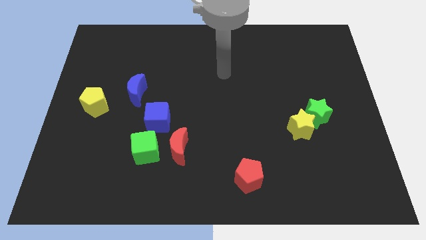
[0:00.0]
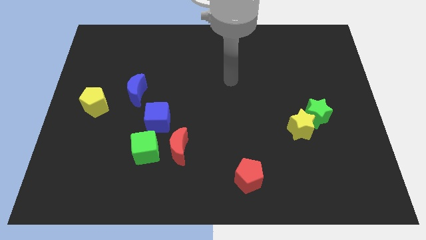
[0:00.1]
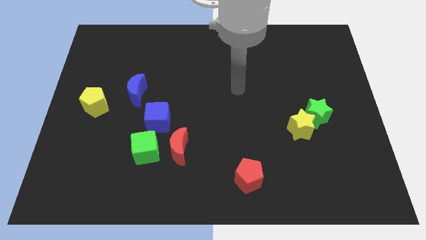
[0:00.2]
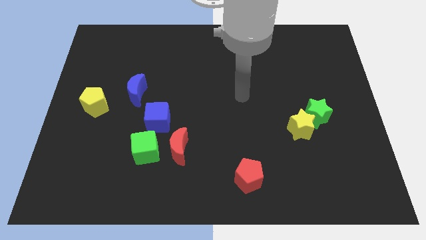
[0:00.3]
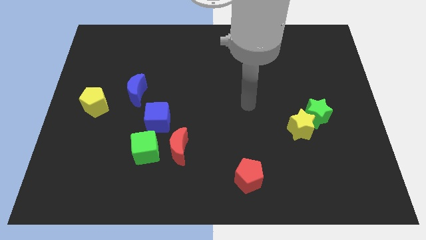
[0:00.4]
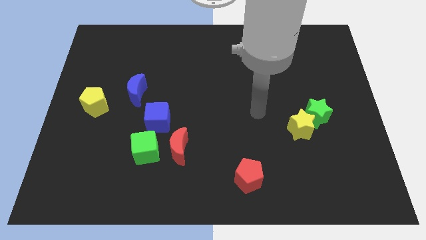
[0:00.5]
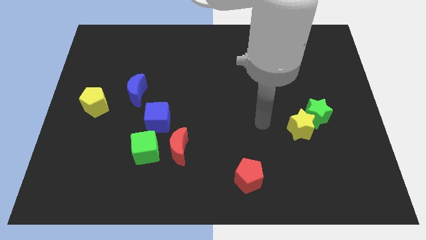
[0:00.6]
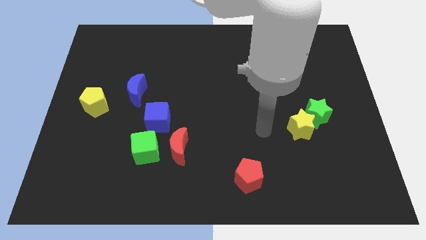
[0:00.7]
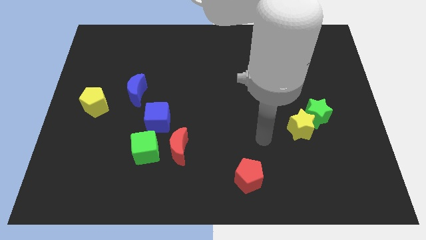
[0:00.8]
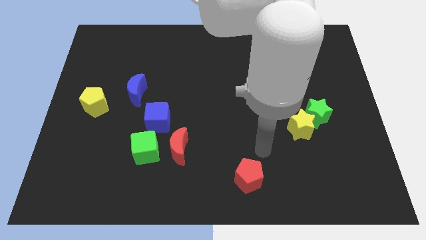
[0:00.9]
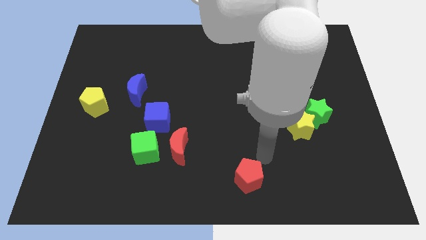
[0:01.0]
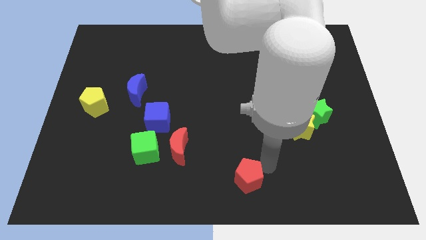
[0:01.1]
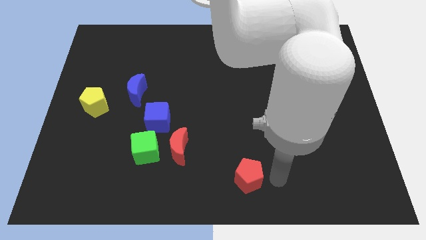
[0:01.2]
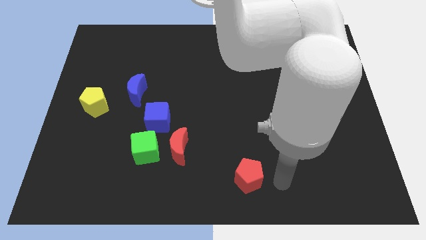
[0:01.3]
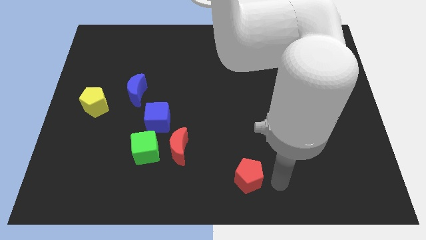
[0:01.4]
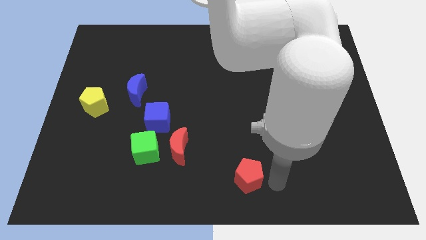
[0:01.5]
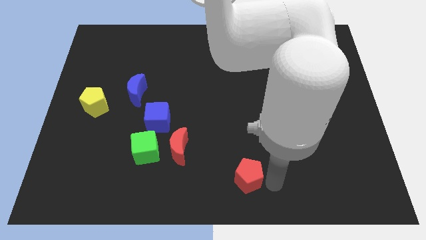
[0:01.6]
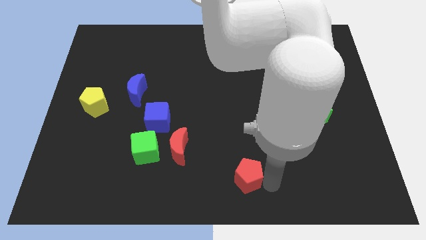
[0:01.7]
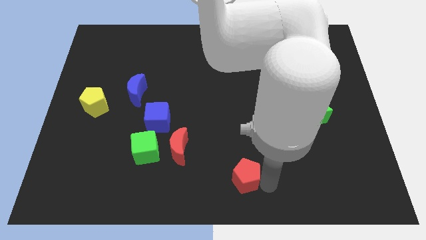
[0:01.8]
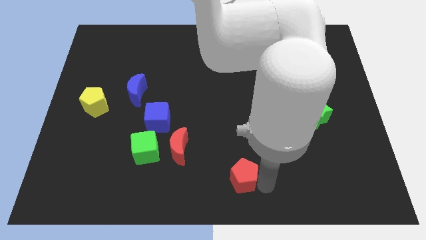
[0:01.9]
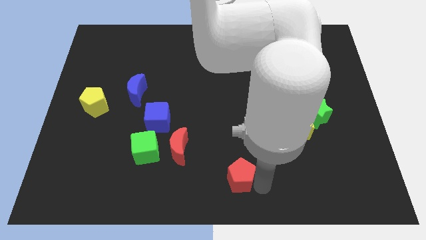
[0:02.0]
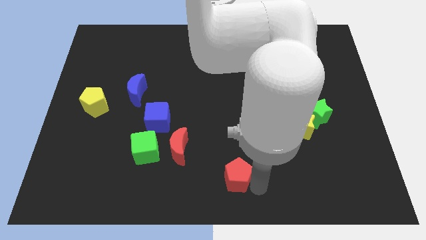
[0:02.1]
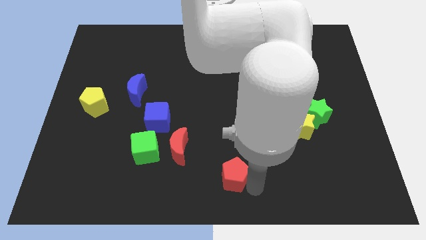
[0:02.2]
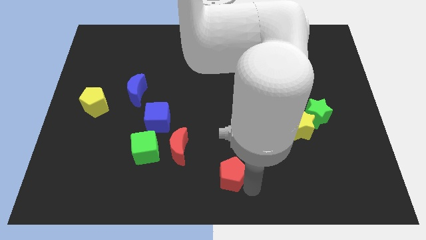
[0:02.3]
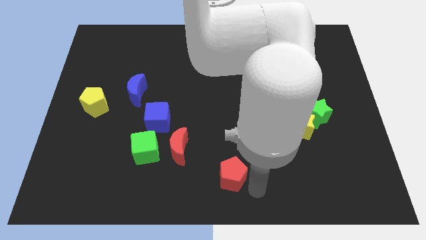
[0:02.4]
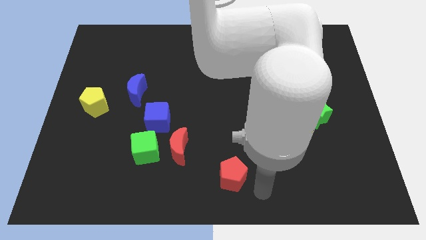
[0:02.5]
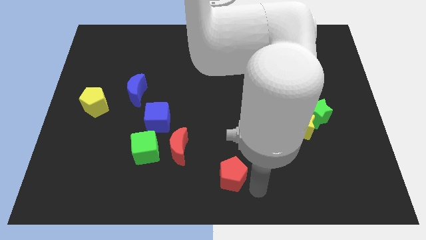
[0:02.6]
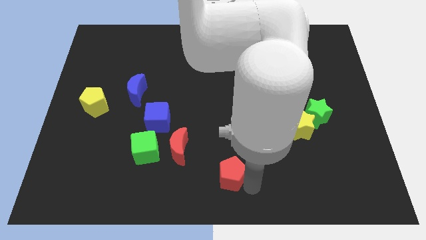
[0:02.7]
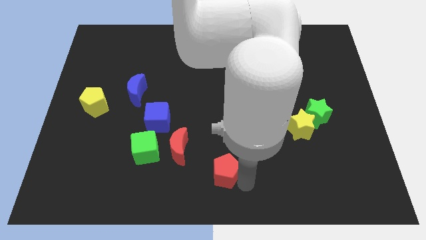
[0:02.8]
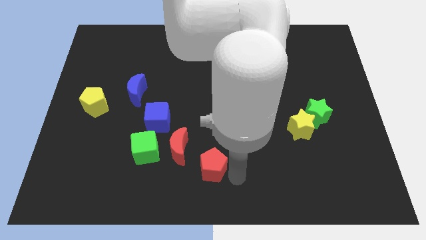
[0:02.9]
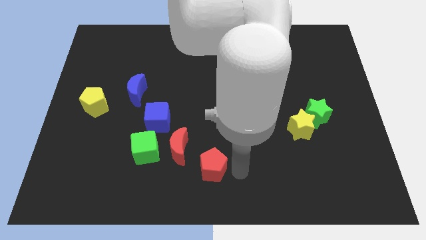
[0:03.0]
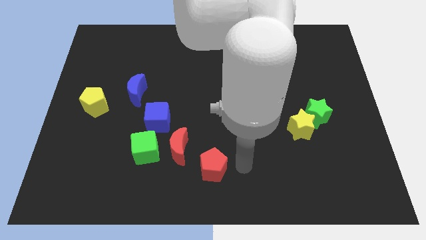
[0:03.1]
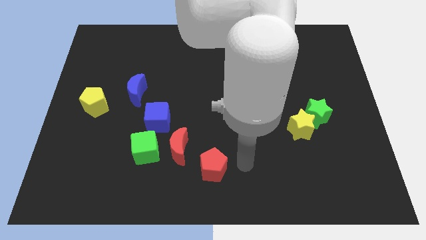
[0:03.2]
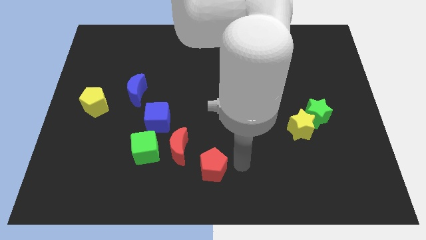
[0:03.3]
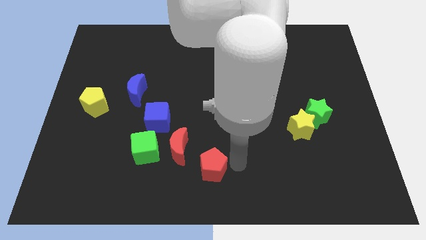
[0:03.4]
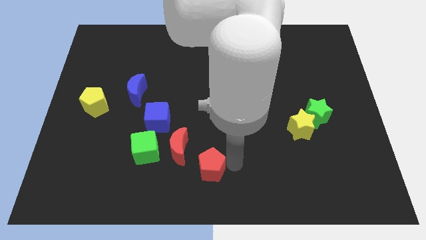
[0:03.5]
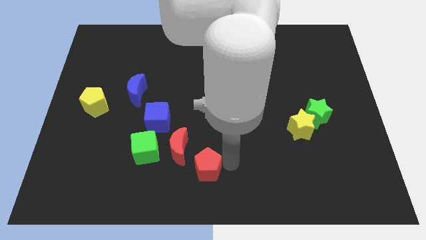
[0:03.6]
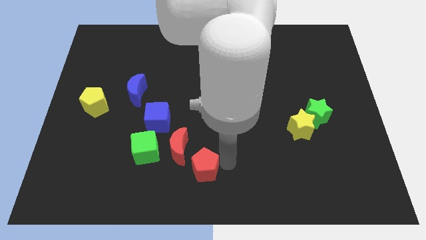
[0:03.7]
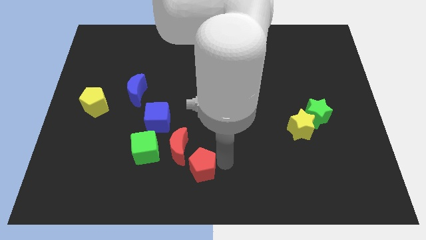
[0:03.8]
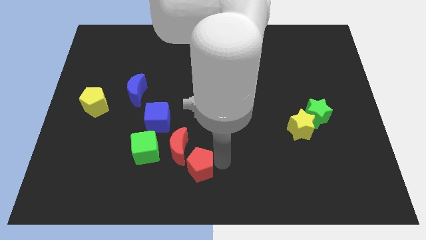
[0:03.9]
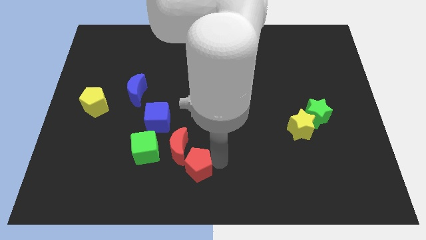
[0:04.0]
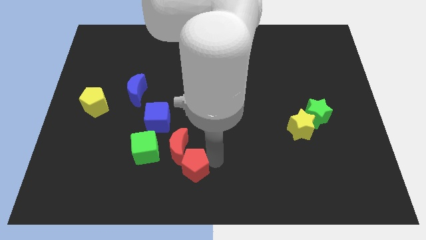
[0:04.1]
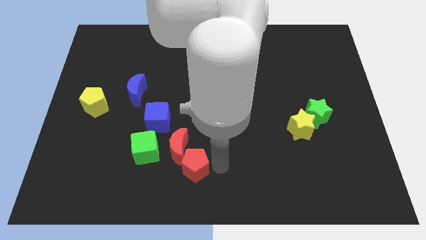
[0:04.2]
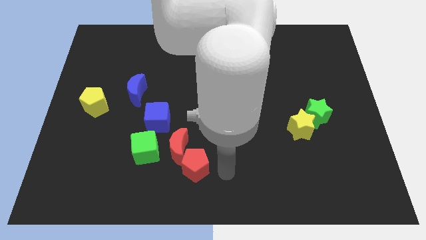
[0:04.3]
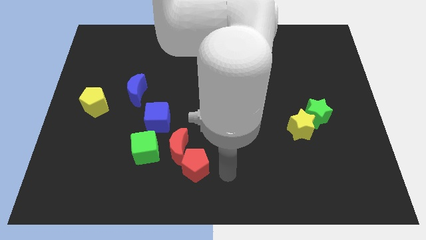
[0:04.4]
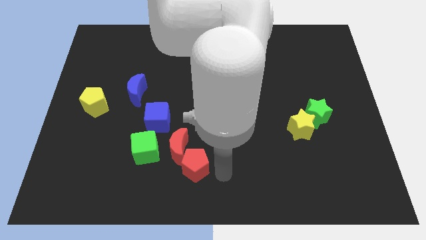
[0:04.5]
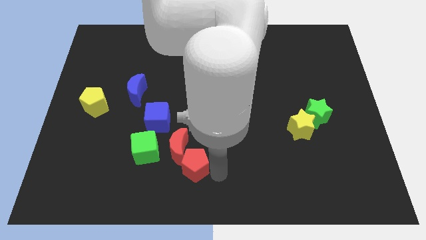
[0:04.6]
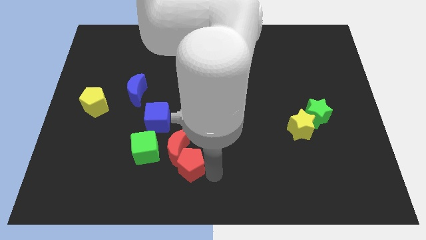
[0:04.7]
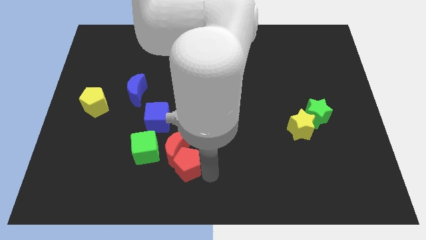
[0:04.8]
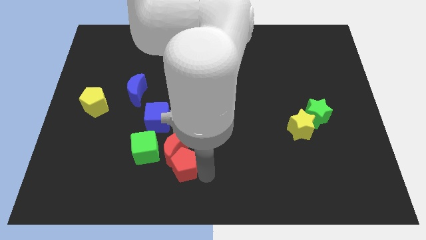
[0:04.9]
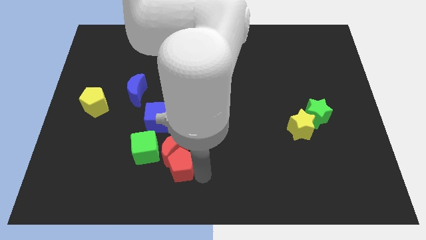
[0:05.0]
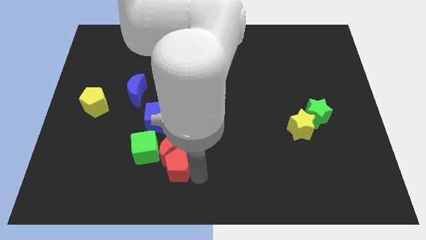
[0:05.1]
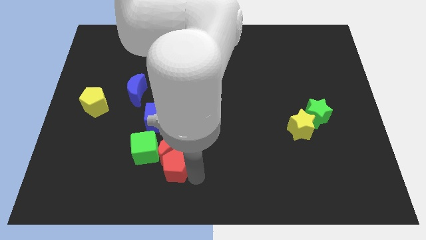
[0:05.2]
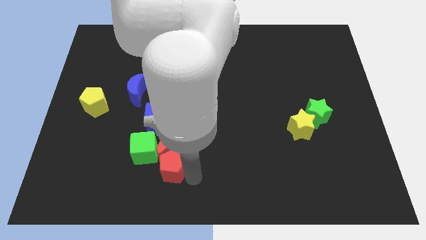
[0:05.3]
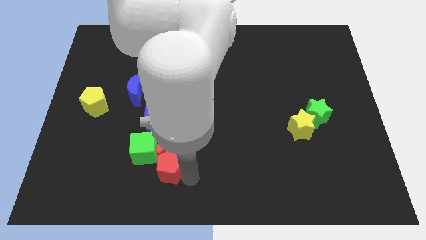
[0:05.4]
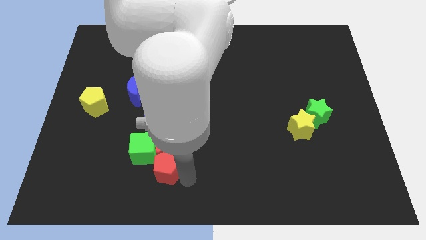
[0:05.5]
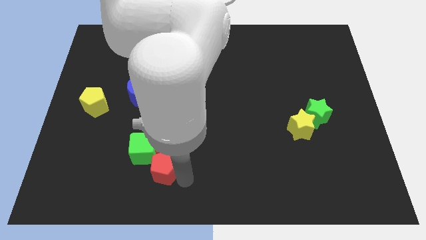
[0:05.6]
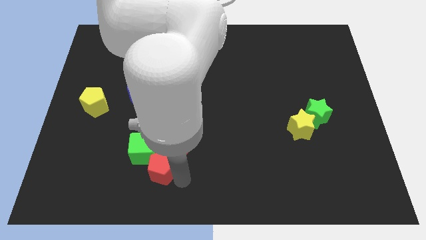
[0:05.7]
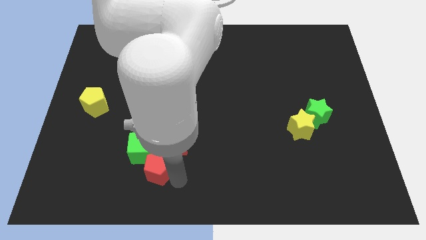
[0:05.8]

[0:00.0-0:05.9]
push the red pentagon next to the green cube
